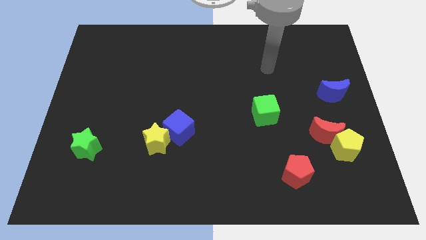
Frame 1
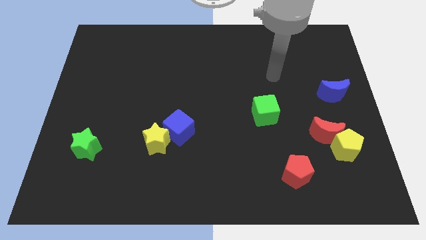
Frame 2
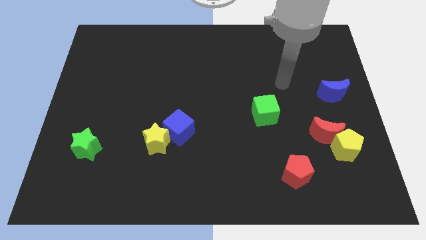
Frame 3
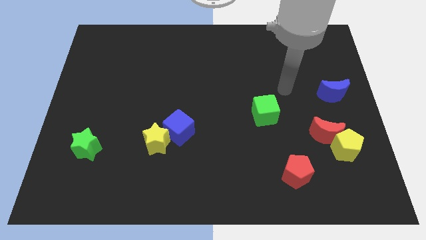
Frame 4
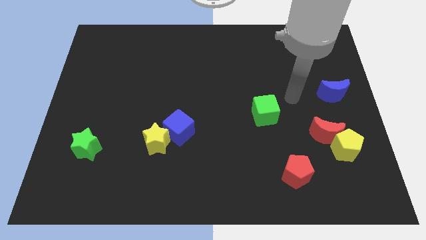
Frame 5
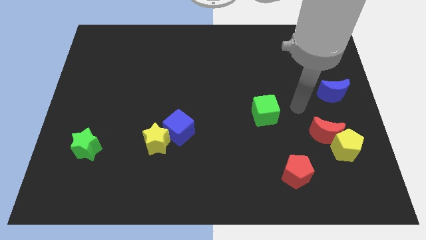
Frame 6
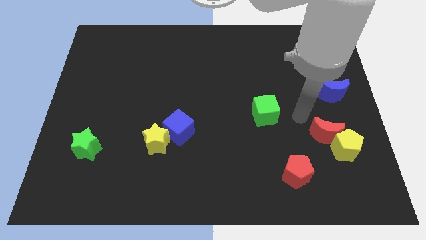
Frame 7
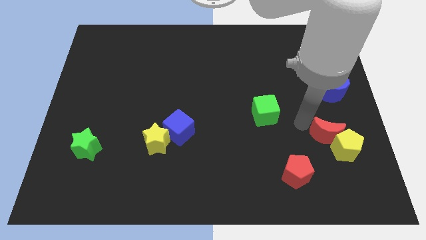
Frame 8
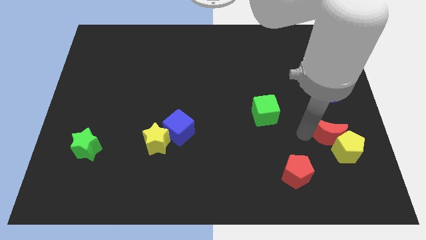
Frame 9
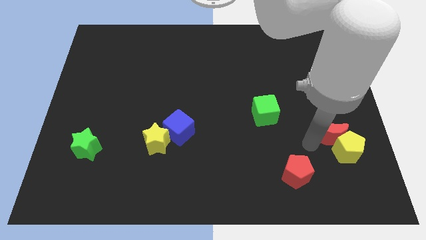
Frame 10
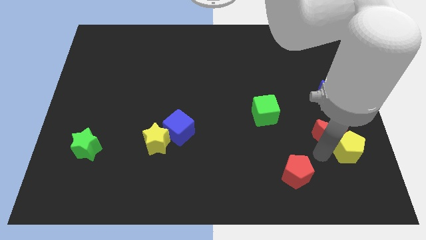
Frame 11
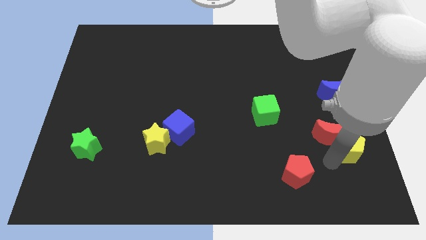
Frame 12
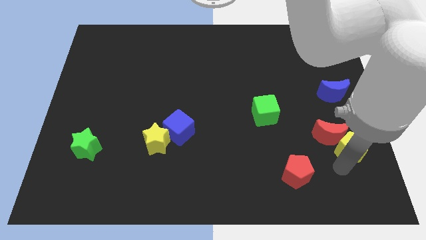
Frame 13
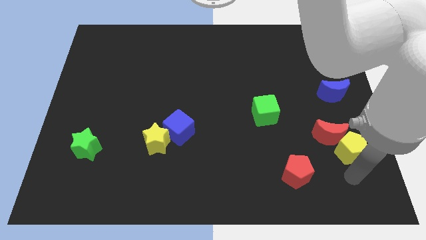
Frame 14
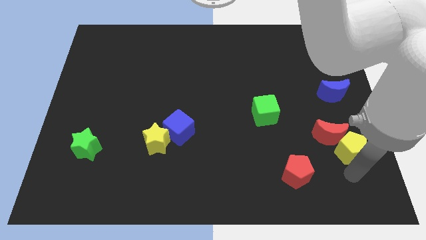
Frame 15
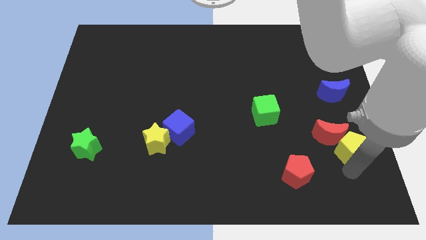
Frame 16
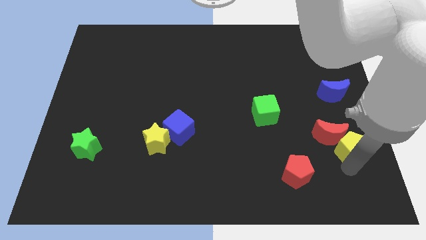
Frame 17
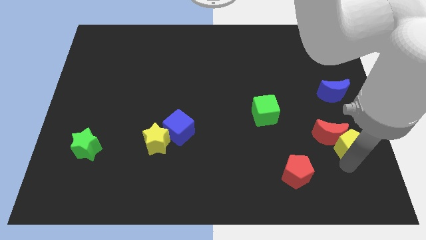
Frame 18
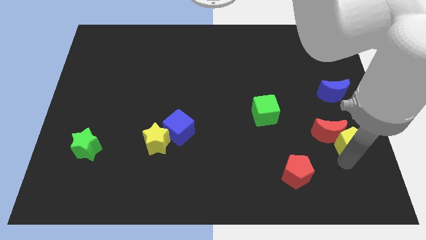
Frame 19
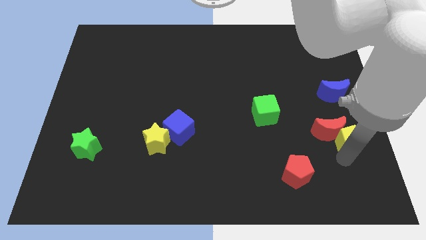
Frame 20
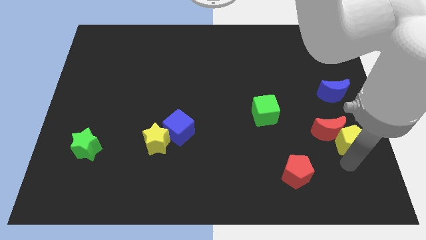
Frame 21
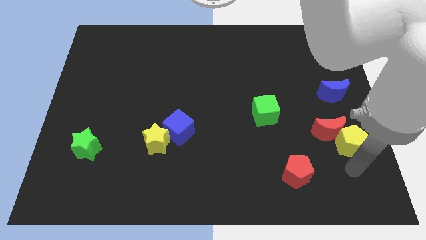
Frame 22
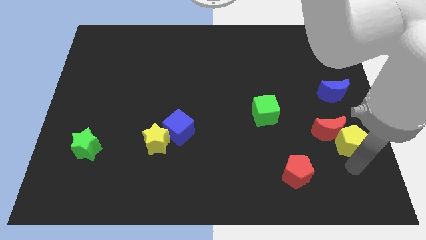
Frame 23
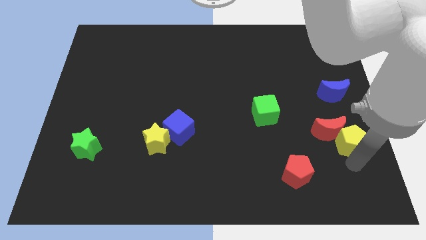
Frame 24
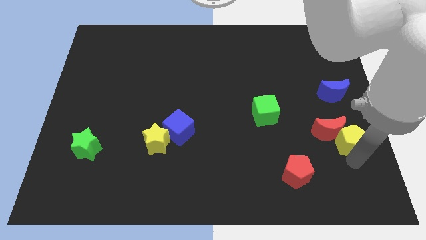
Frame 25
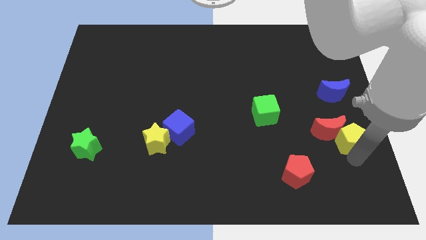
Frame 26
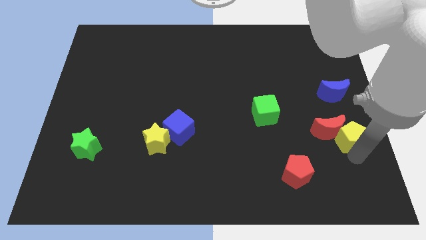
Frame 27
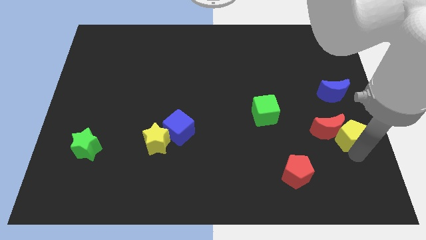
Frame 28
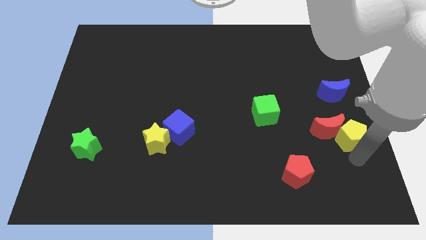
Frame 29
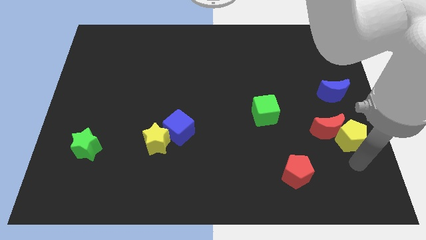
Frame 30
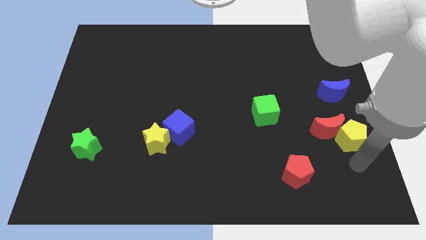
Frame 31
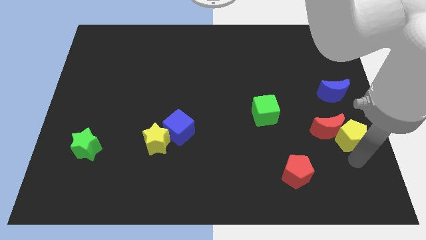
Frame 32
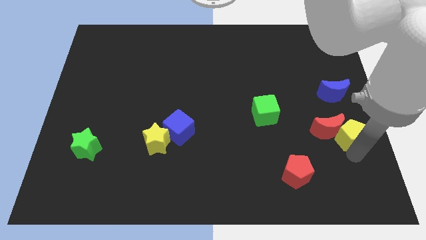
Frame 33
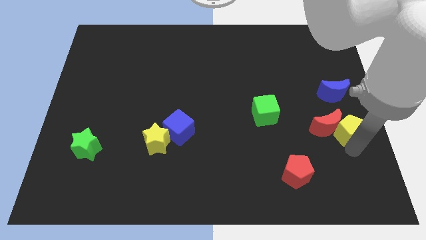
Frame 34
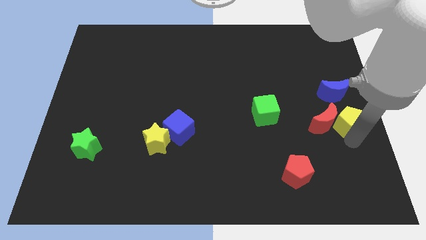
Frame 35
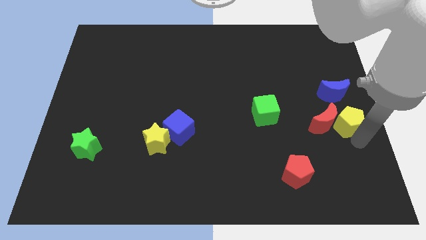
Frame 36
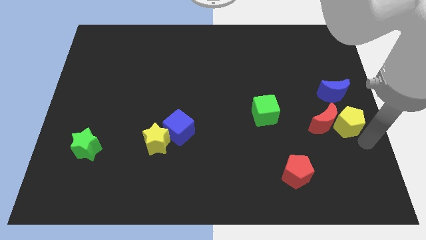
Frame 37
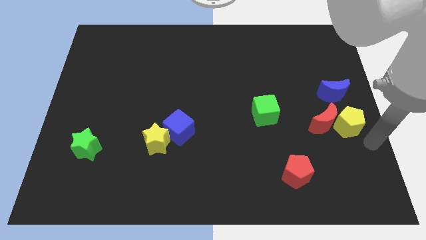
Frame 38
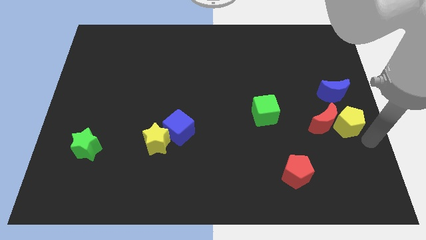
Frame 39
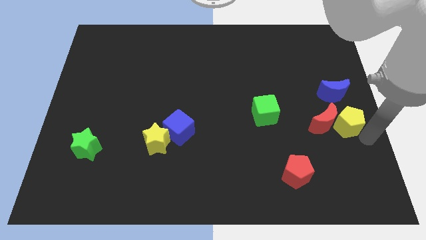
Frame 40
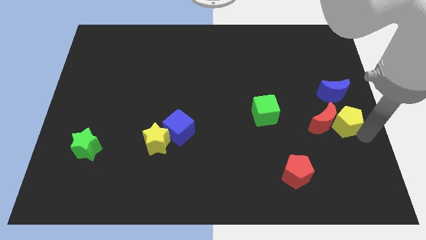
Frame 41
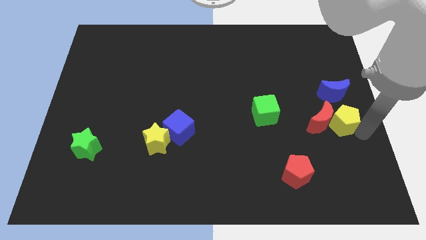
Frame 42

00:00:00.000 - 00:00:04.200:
slide the yellow pentagon upwards a bit

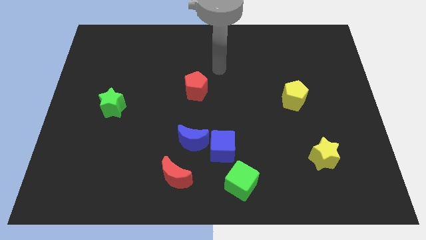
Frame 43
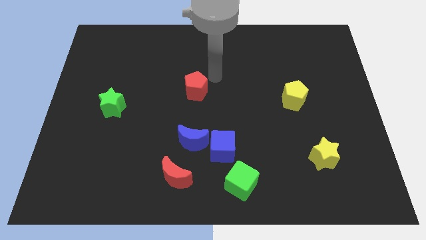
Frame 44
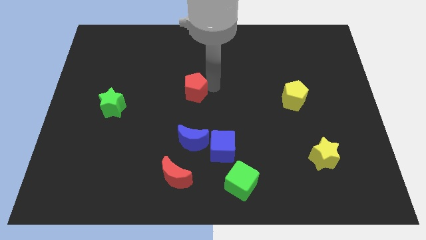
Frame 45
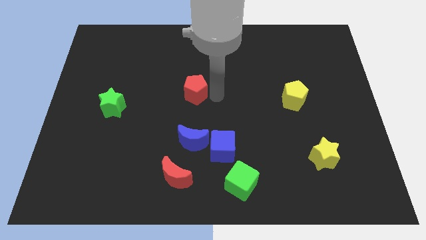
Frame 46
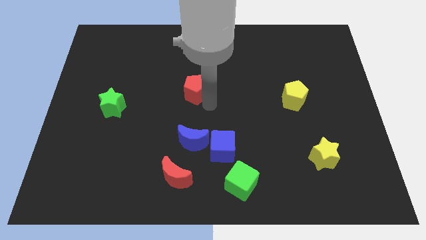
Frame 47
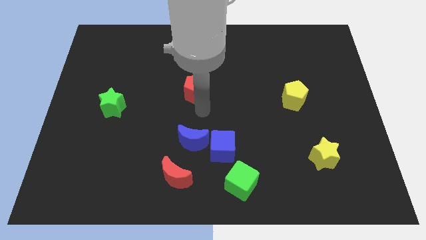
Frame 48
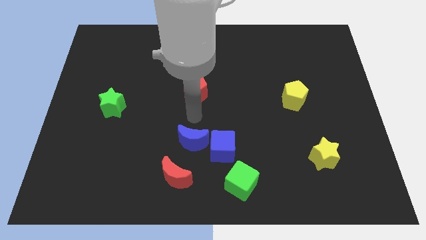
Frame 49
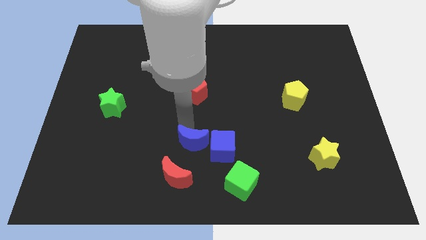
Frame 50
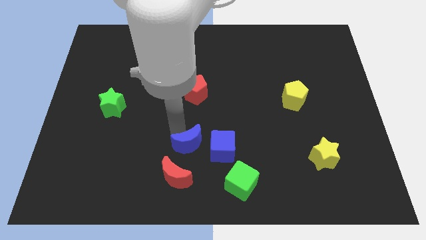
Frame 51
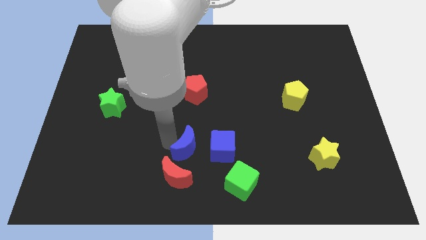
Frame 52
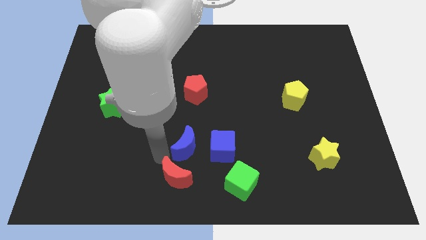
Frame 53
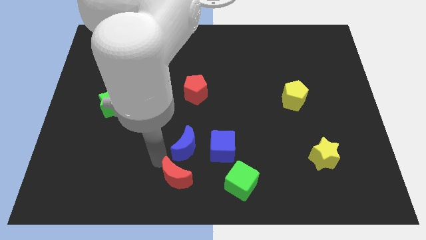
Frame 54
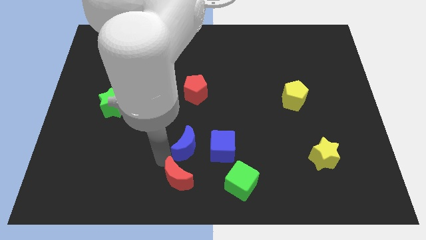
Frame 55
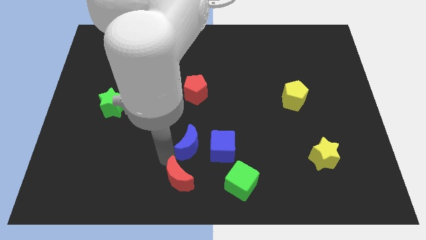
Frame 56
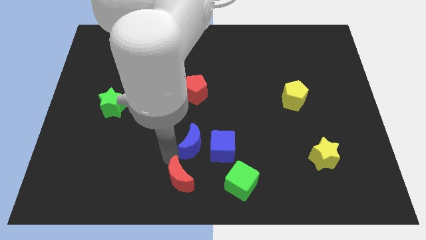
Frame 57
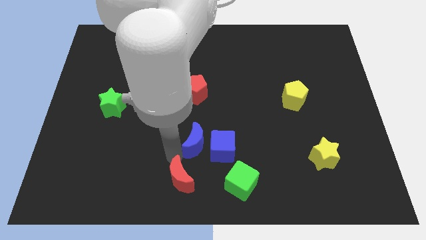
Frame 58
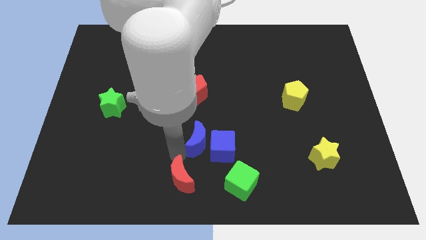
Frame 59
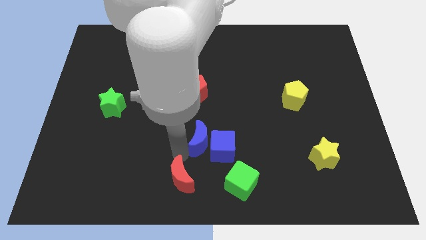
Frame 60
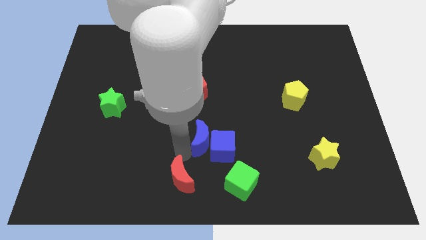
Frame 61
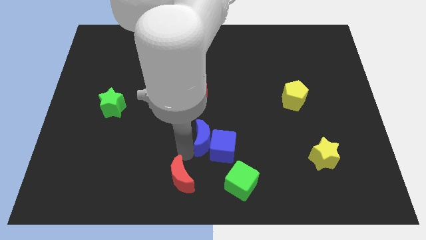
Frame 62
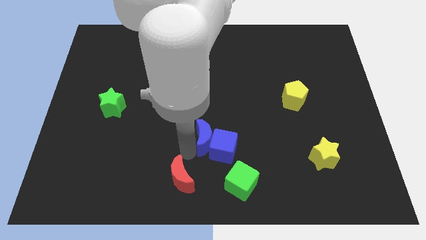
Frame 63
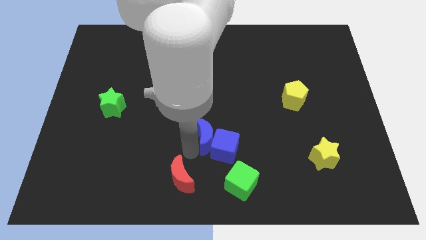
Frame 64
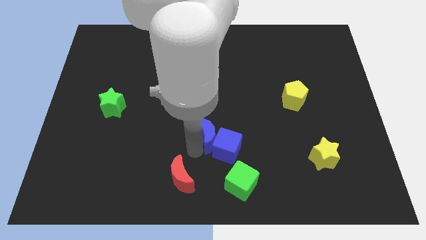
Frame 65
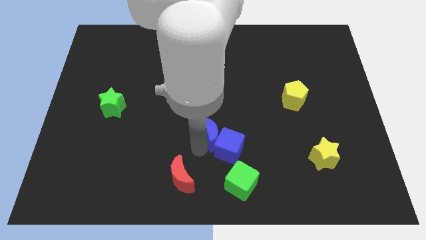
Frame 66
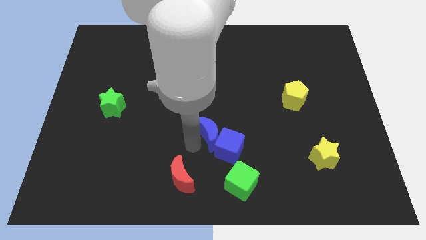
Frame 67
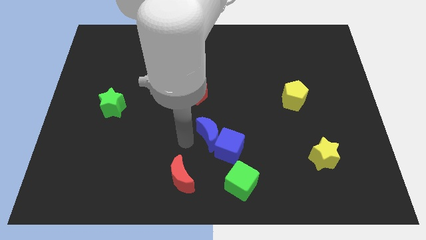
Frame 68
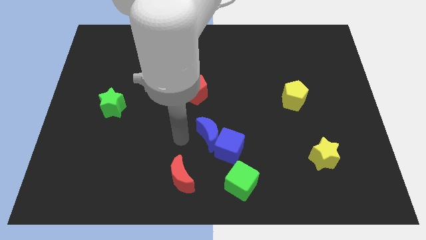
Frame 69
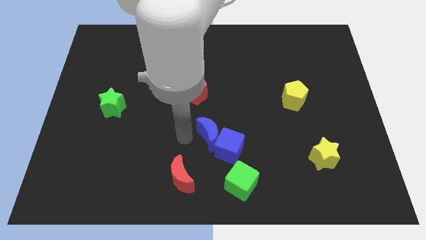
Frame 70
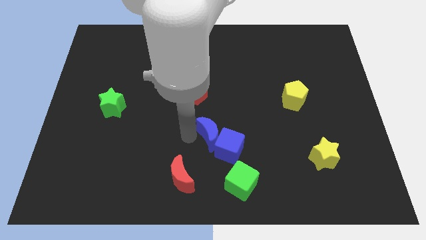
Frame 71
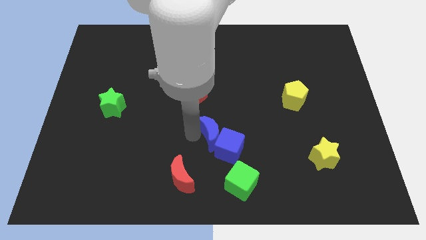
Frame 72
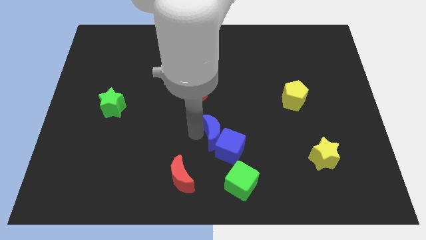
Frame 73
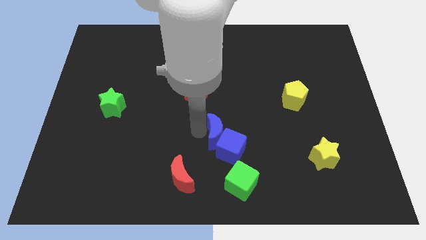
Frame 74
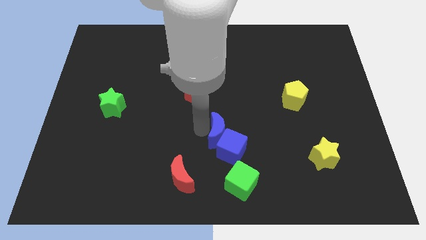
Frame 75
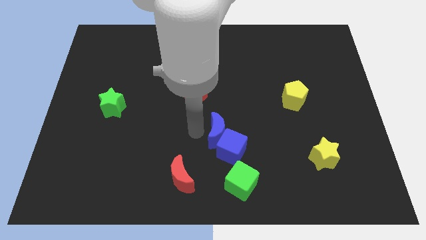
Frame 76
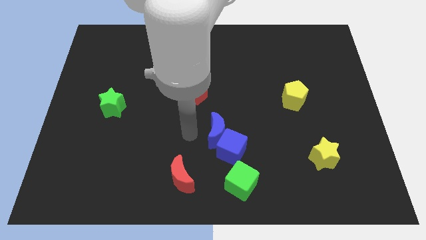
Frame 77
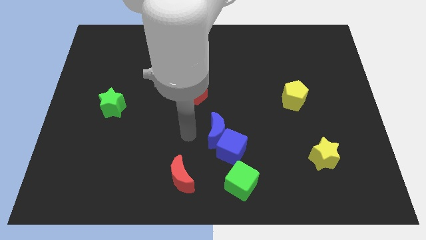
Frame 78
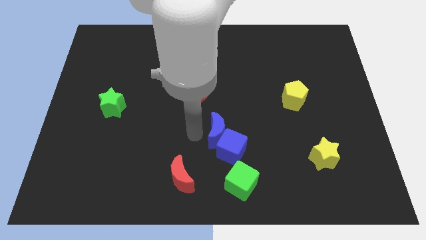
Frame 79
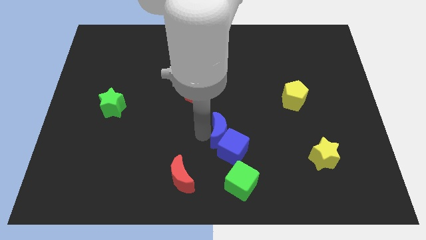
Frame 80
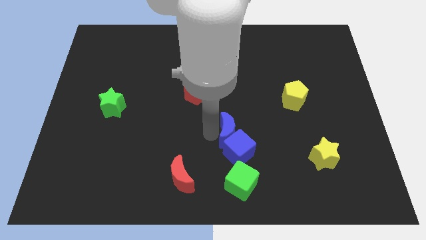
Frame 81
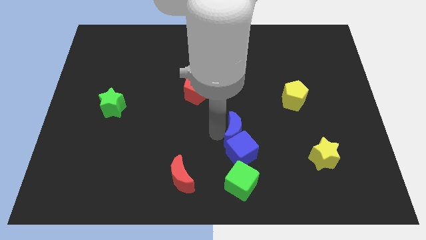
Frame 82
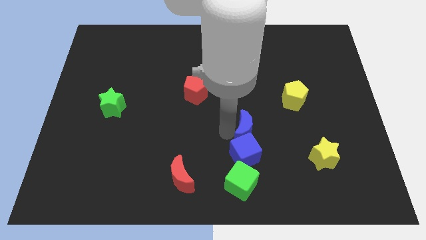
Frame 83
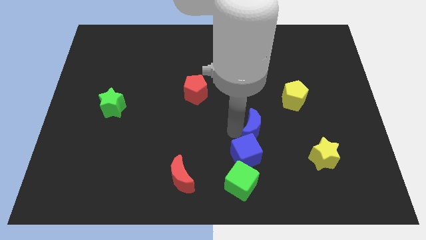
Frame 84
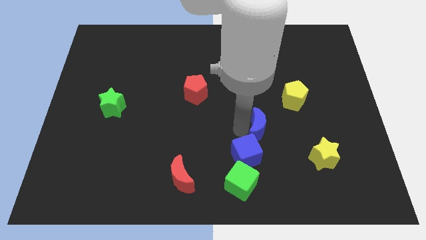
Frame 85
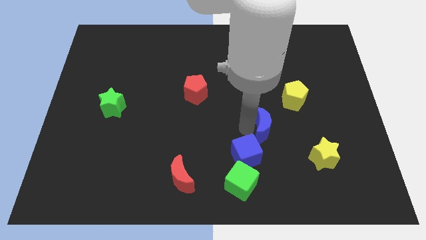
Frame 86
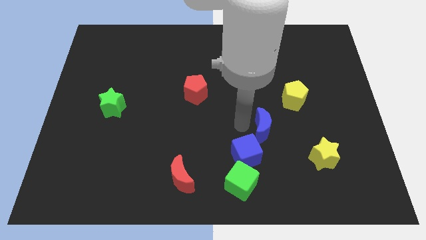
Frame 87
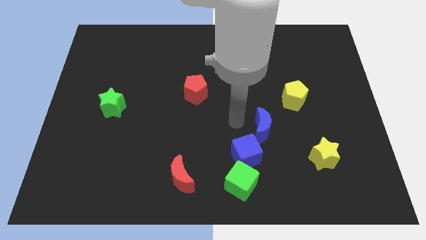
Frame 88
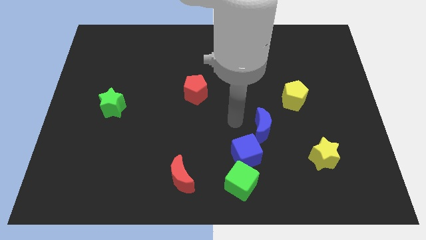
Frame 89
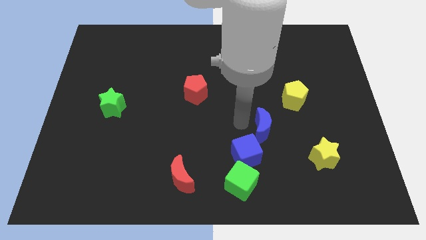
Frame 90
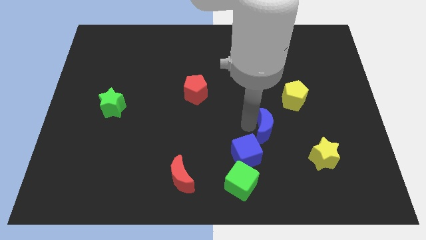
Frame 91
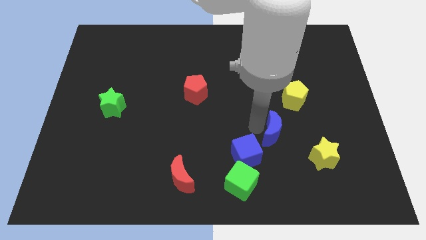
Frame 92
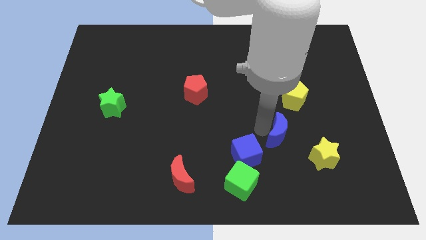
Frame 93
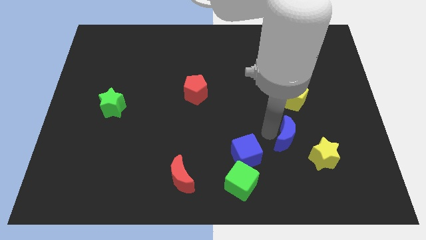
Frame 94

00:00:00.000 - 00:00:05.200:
move the blue moon right
